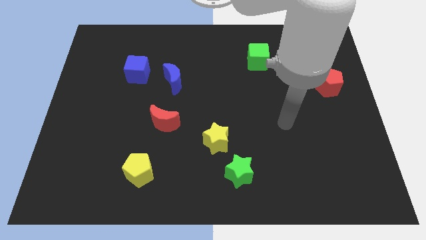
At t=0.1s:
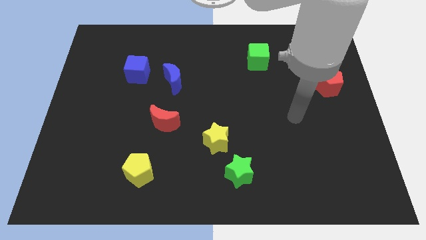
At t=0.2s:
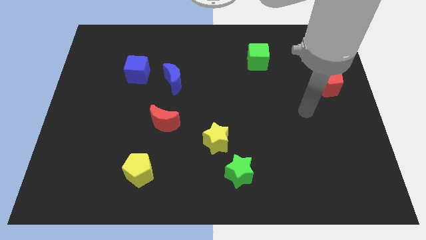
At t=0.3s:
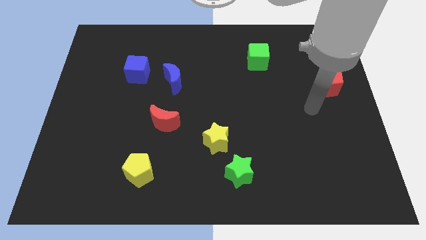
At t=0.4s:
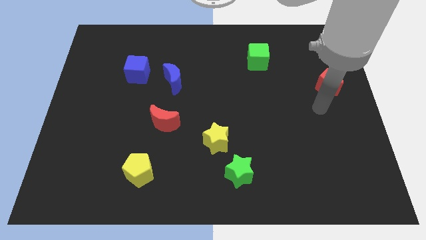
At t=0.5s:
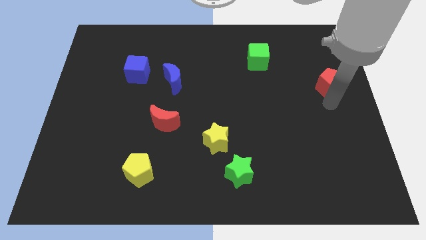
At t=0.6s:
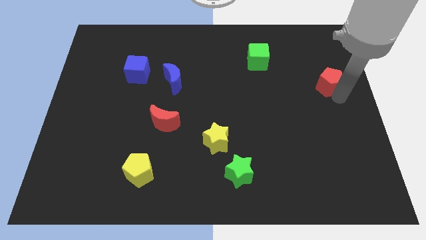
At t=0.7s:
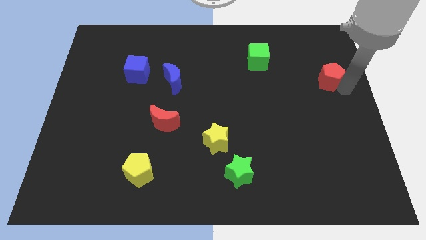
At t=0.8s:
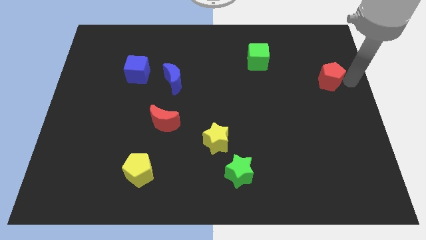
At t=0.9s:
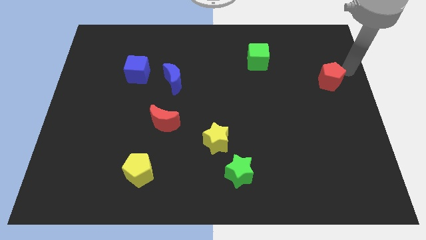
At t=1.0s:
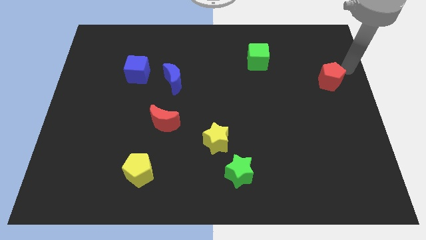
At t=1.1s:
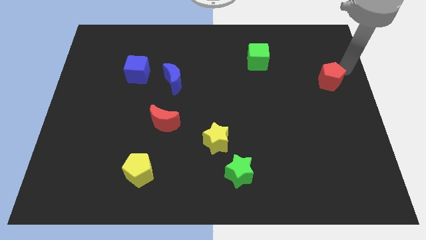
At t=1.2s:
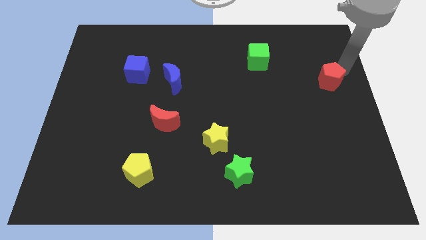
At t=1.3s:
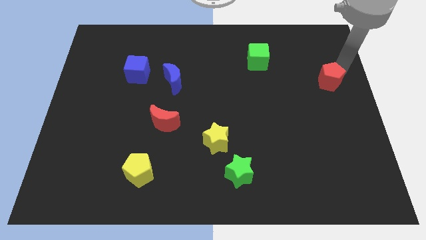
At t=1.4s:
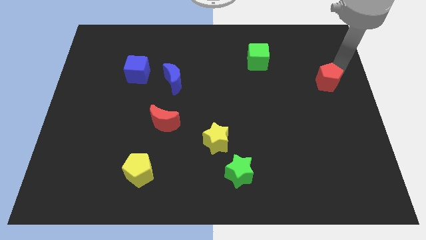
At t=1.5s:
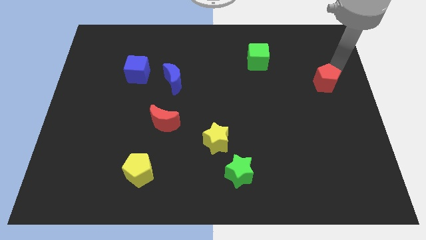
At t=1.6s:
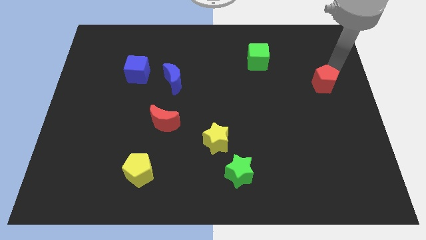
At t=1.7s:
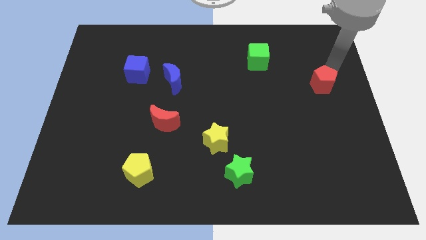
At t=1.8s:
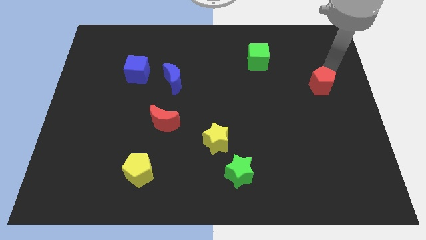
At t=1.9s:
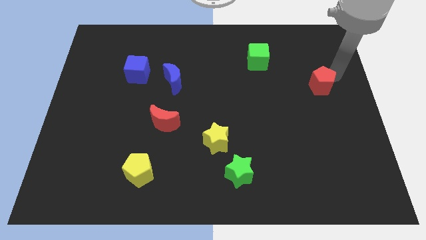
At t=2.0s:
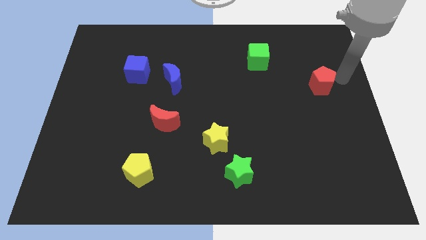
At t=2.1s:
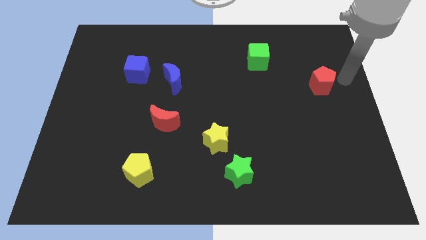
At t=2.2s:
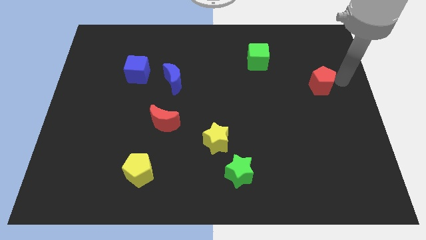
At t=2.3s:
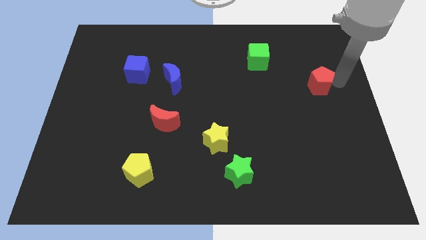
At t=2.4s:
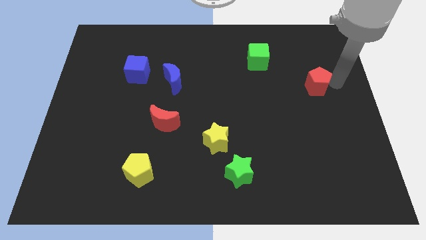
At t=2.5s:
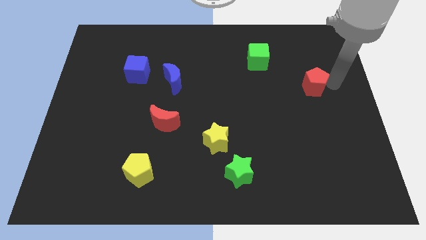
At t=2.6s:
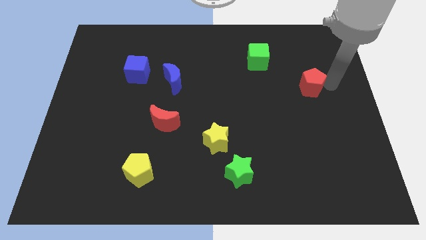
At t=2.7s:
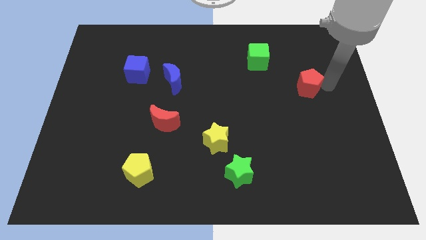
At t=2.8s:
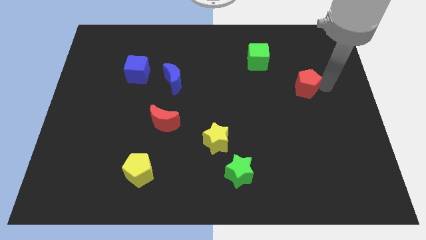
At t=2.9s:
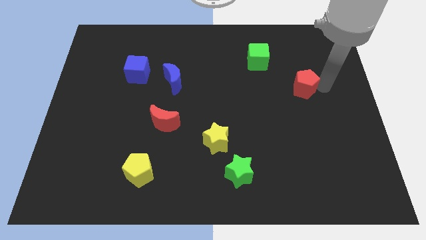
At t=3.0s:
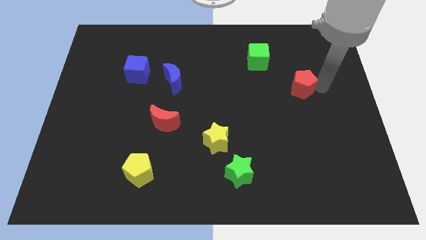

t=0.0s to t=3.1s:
move the red pentagon slightly left

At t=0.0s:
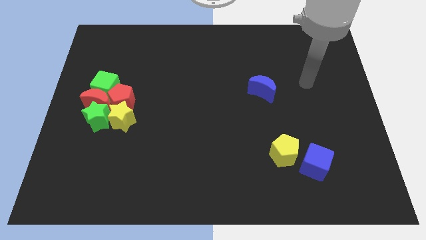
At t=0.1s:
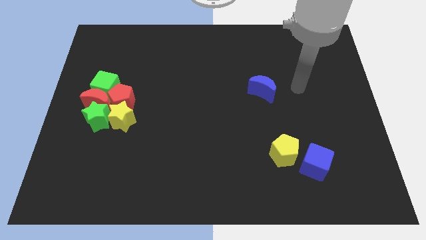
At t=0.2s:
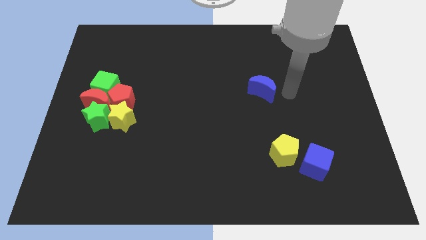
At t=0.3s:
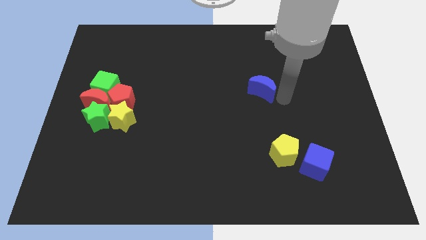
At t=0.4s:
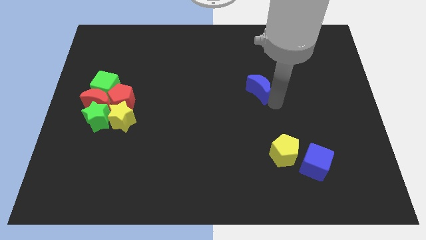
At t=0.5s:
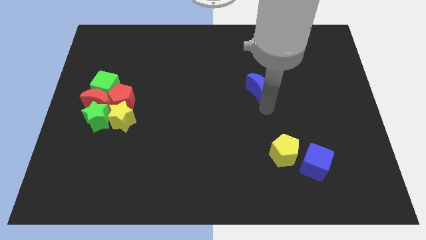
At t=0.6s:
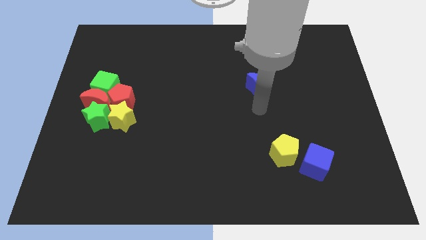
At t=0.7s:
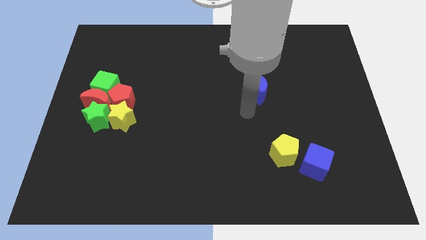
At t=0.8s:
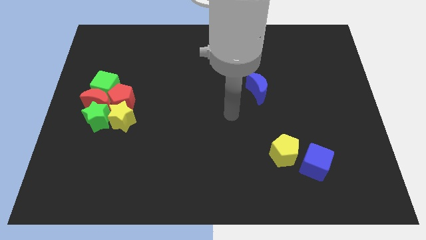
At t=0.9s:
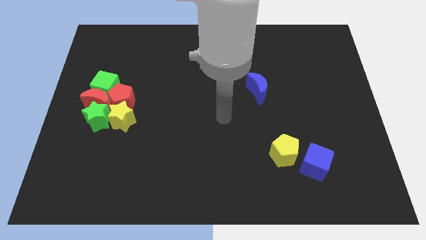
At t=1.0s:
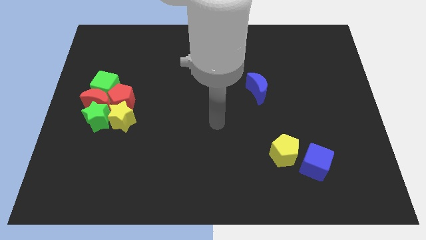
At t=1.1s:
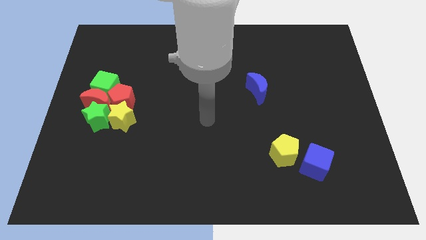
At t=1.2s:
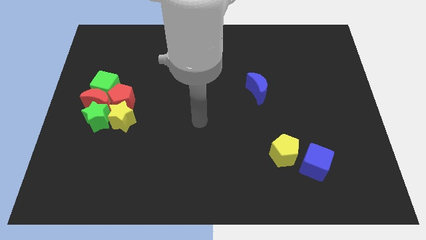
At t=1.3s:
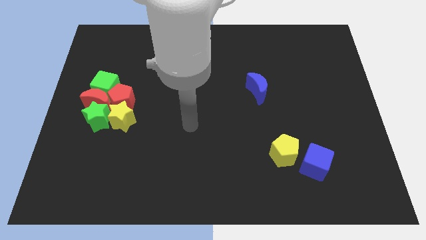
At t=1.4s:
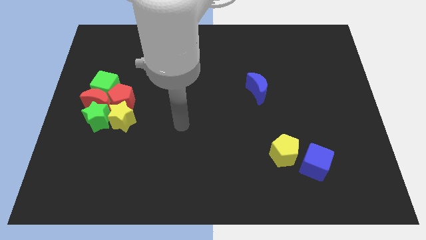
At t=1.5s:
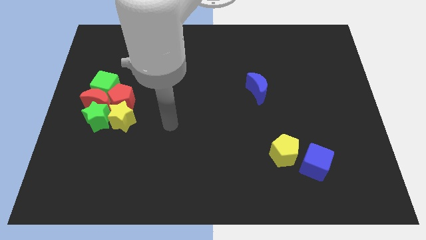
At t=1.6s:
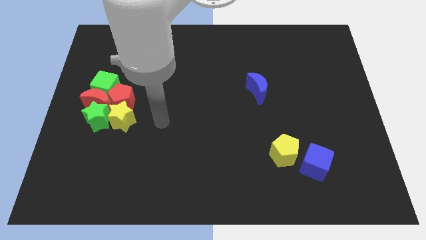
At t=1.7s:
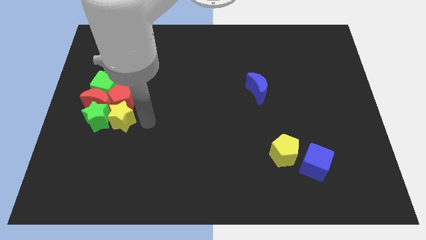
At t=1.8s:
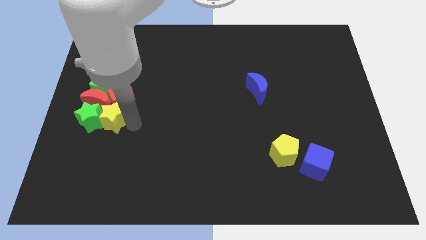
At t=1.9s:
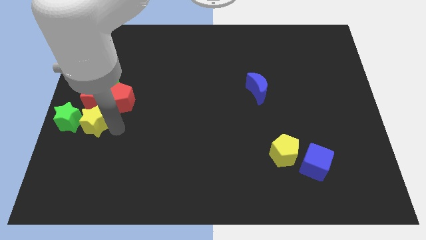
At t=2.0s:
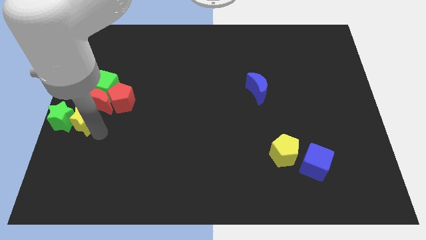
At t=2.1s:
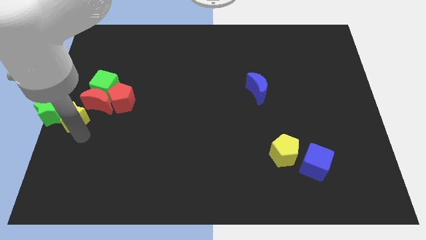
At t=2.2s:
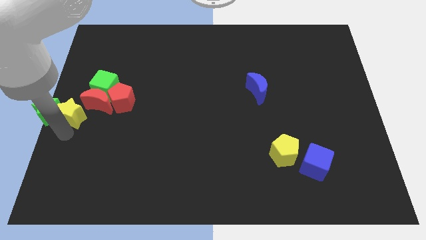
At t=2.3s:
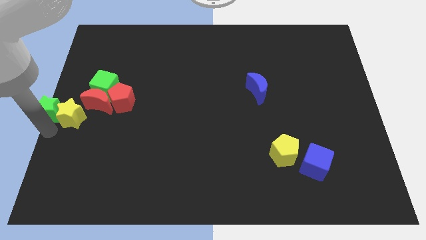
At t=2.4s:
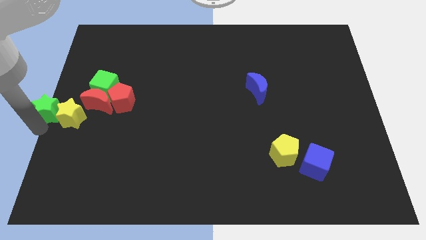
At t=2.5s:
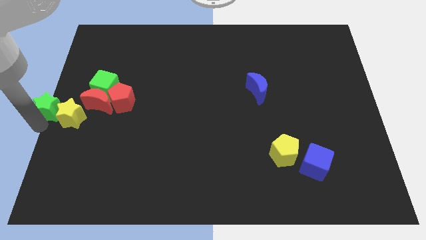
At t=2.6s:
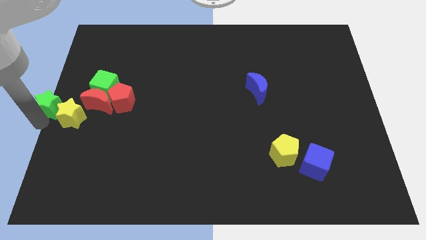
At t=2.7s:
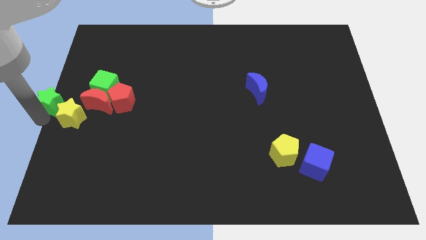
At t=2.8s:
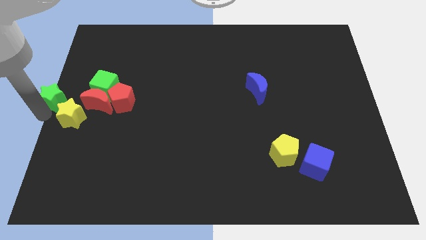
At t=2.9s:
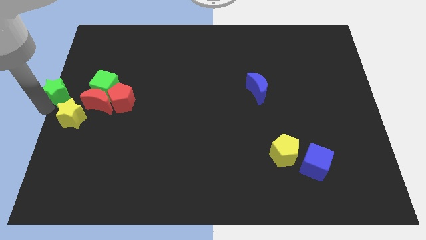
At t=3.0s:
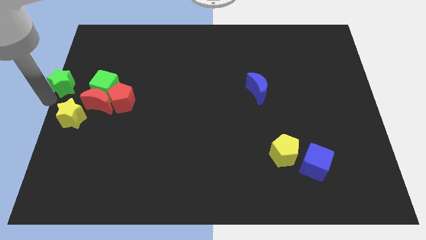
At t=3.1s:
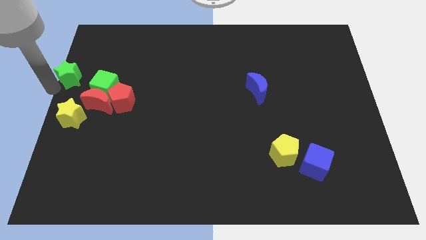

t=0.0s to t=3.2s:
push the green star up slightly

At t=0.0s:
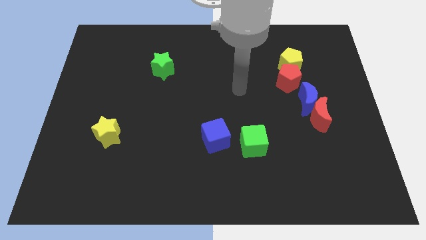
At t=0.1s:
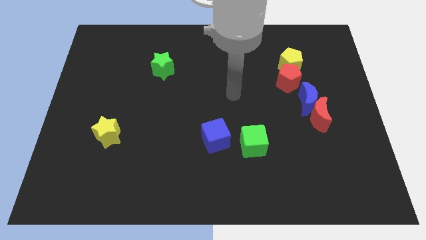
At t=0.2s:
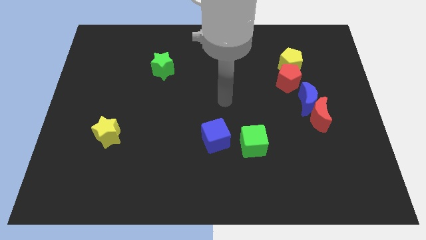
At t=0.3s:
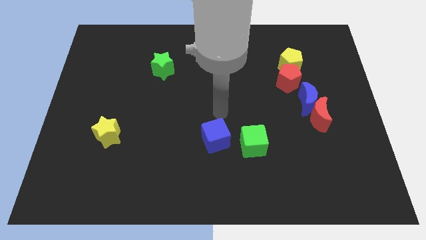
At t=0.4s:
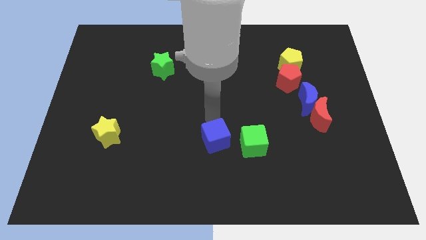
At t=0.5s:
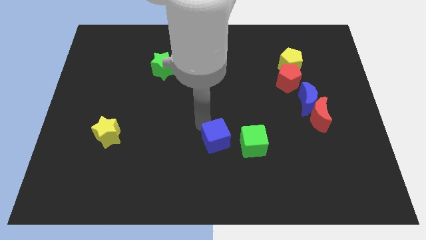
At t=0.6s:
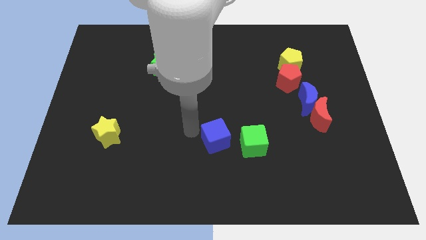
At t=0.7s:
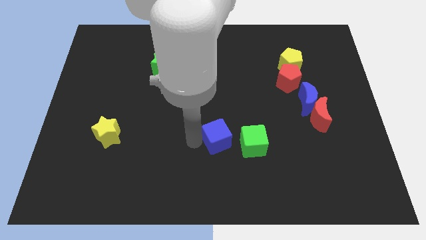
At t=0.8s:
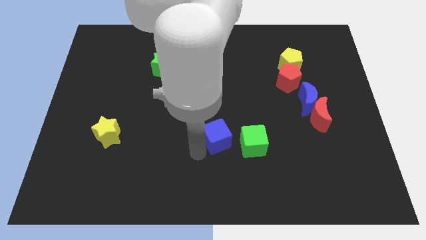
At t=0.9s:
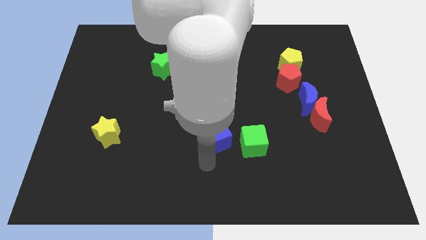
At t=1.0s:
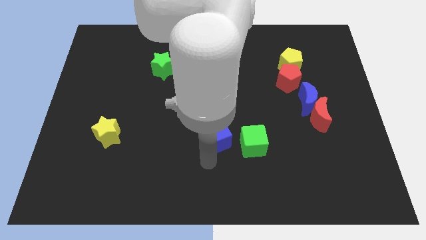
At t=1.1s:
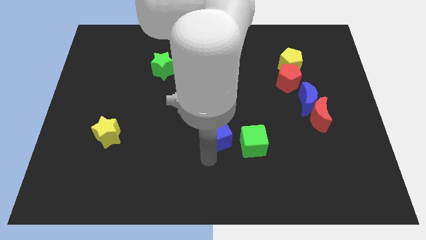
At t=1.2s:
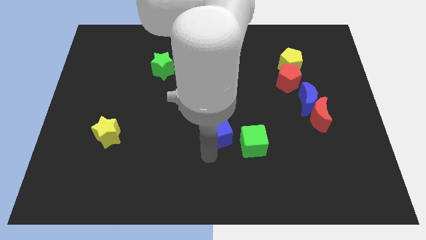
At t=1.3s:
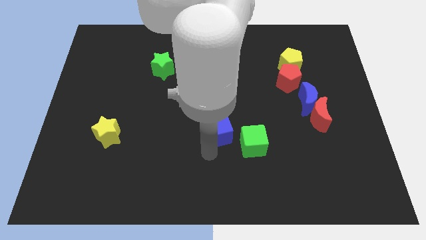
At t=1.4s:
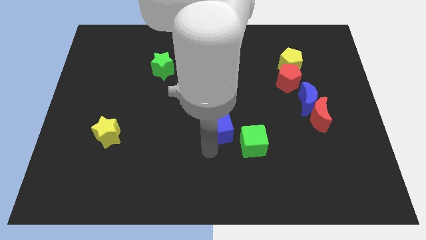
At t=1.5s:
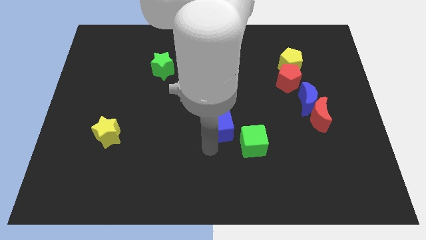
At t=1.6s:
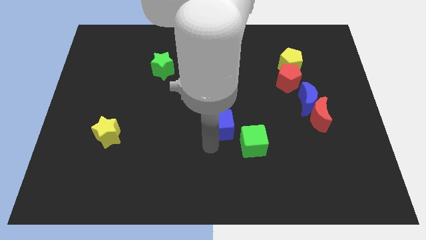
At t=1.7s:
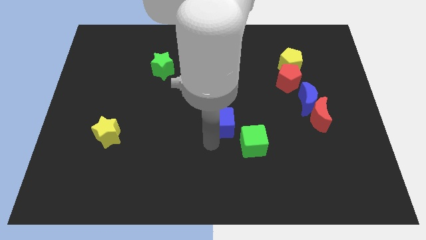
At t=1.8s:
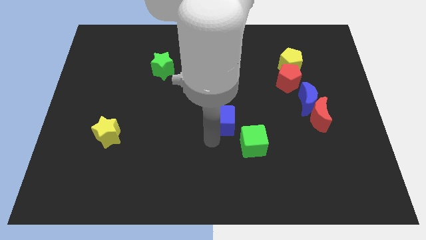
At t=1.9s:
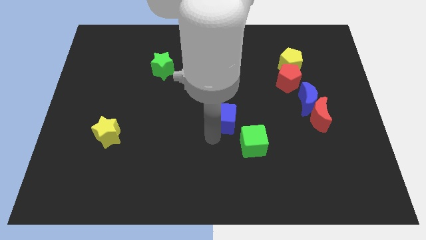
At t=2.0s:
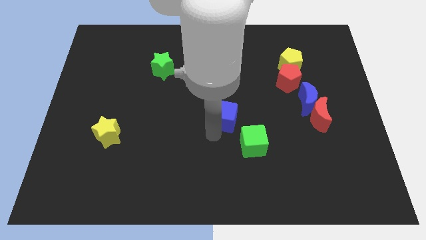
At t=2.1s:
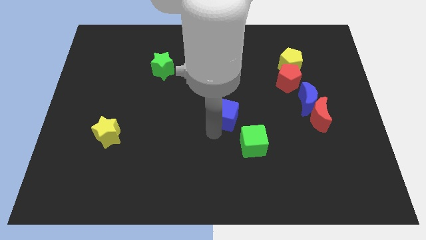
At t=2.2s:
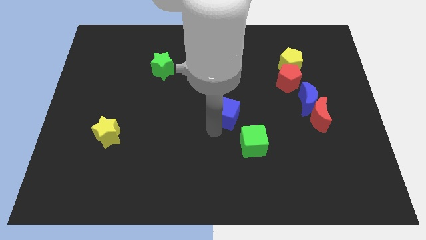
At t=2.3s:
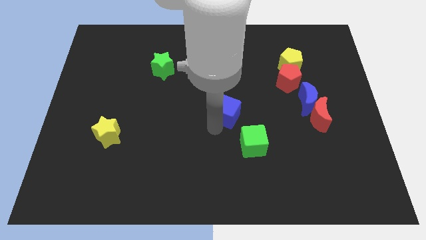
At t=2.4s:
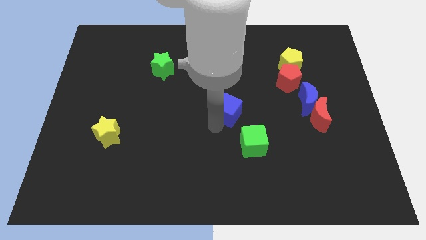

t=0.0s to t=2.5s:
move the blue cube a little bit upwards and right
